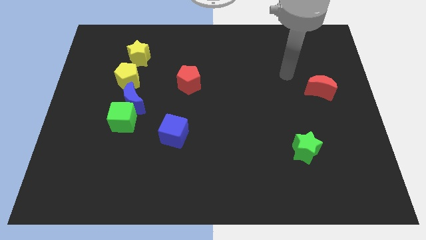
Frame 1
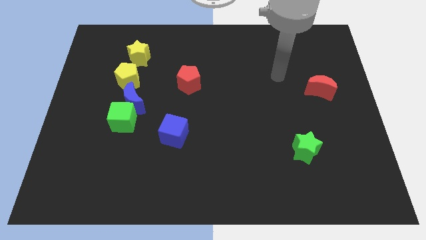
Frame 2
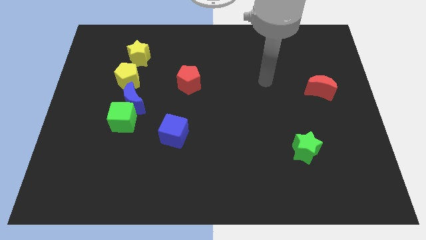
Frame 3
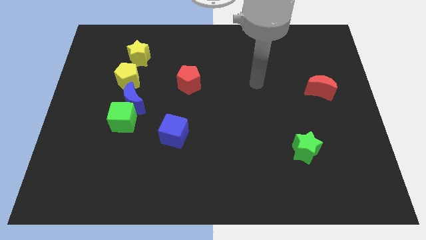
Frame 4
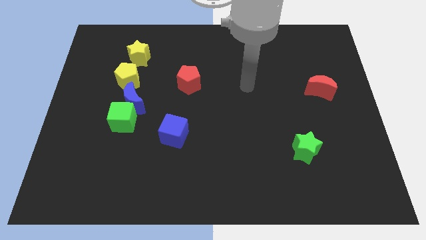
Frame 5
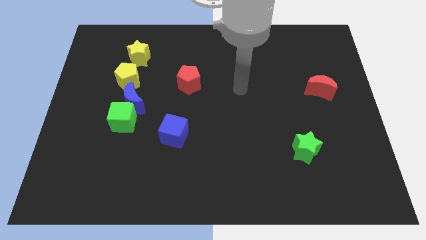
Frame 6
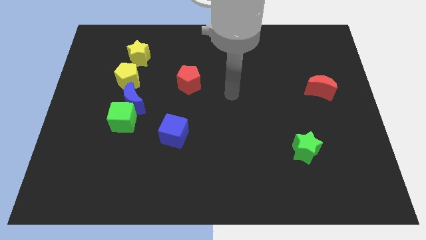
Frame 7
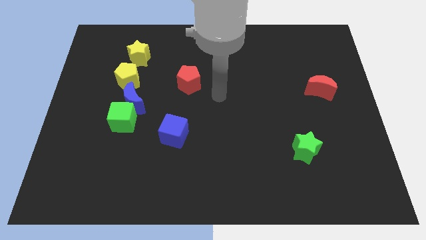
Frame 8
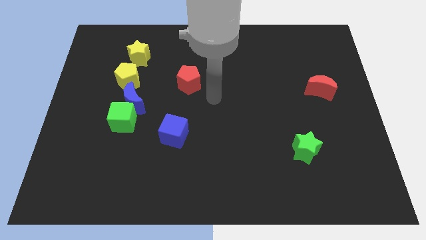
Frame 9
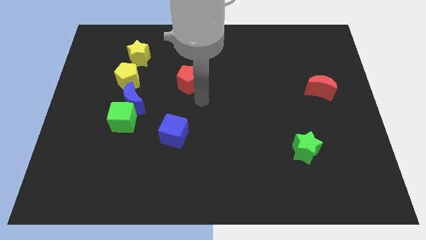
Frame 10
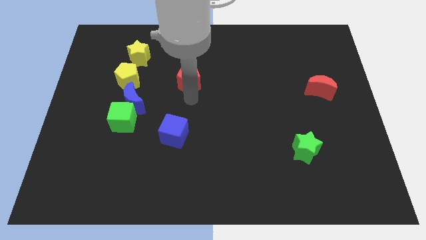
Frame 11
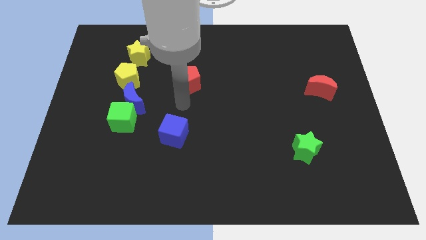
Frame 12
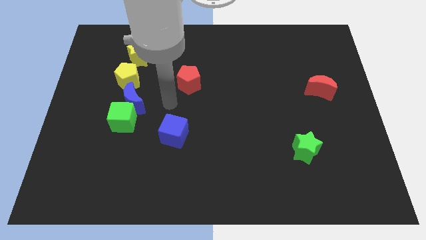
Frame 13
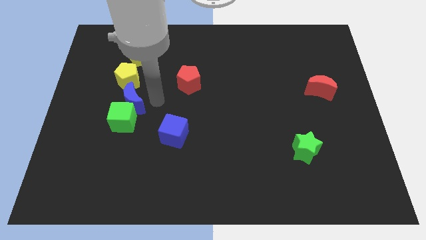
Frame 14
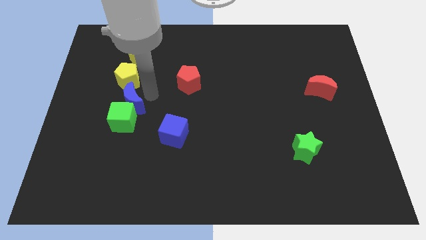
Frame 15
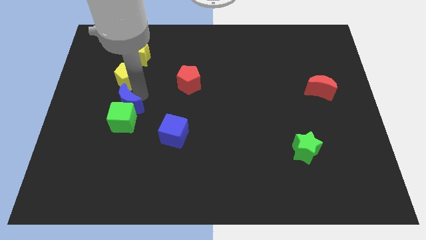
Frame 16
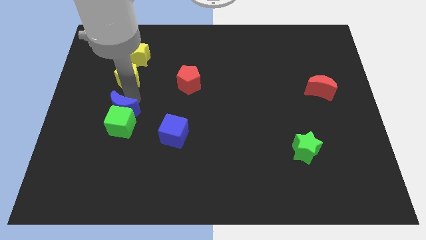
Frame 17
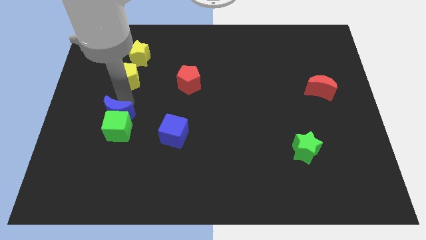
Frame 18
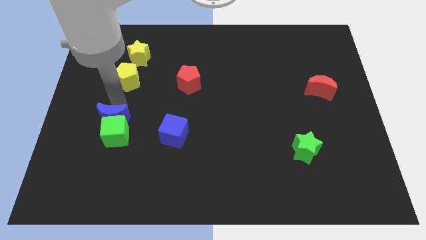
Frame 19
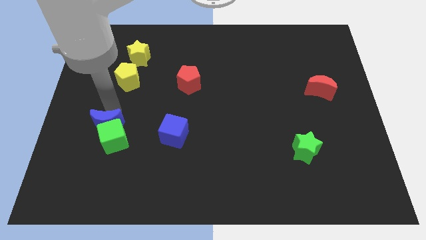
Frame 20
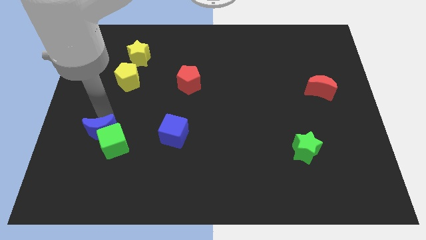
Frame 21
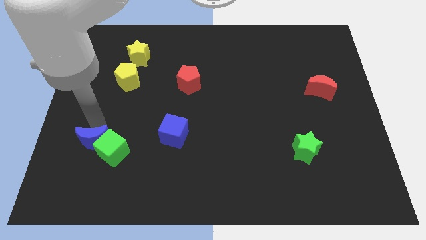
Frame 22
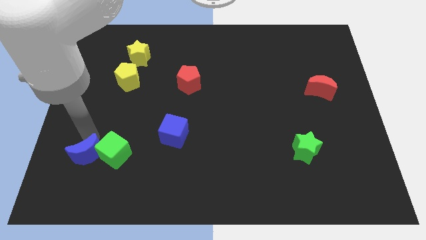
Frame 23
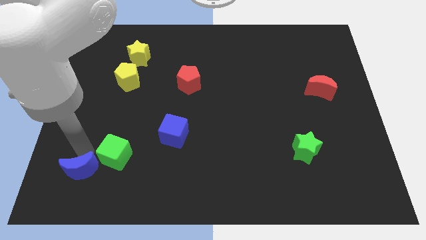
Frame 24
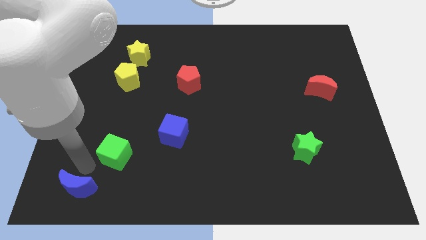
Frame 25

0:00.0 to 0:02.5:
separate the green cube from the blue moon

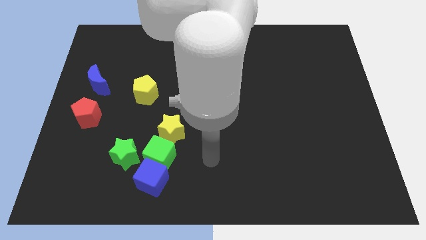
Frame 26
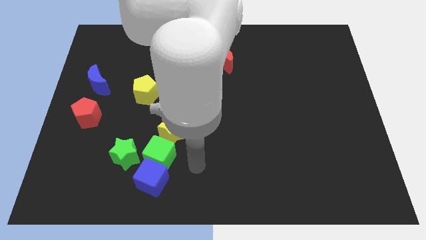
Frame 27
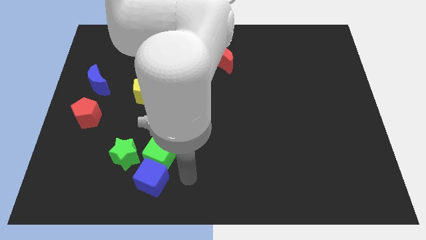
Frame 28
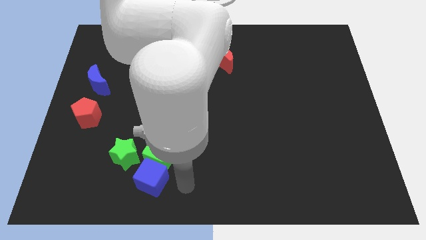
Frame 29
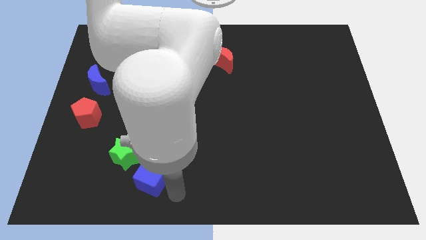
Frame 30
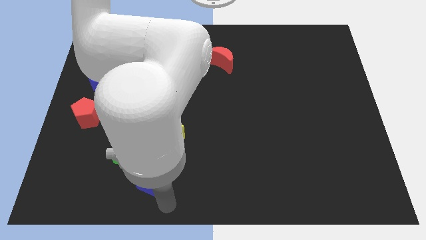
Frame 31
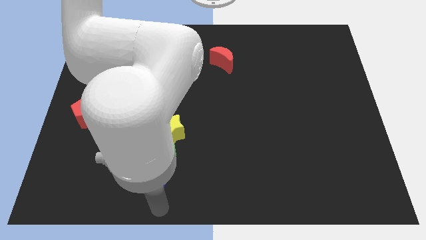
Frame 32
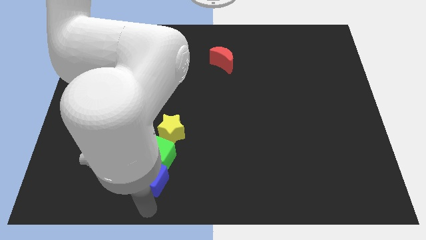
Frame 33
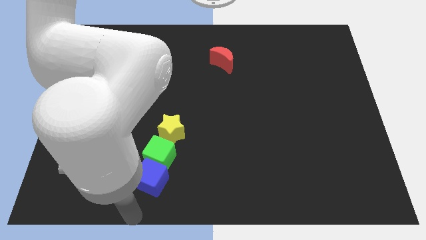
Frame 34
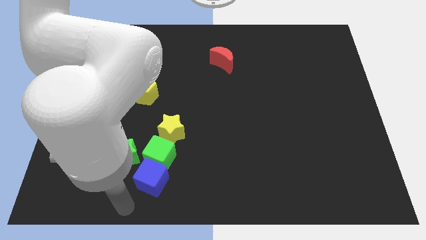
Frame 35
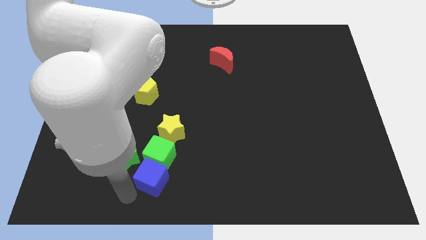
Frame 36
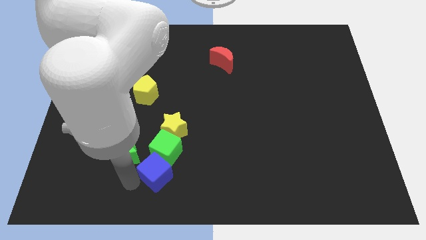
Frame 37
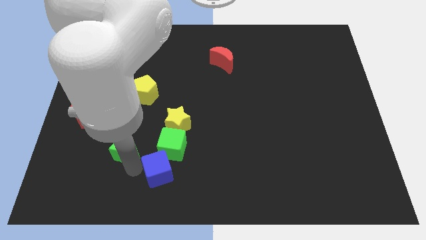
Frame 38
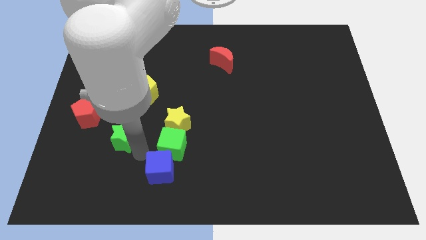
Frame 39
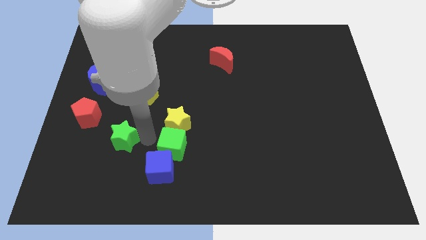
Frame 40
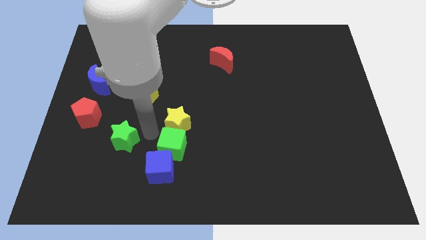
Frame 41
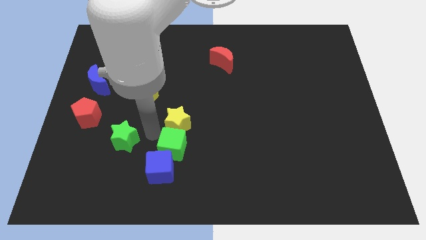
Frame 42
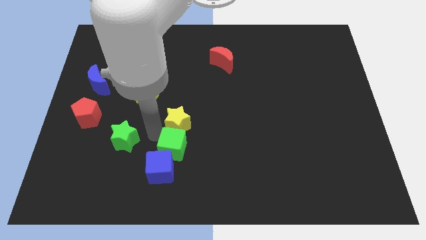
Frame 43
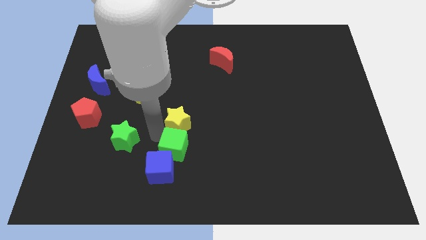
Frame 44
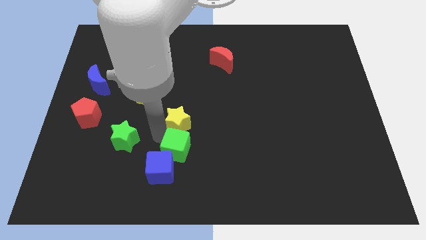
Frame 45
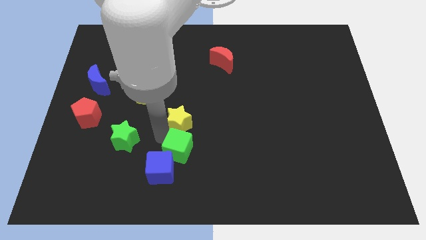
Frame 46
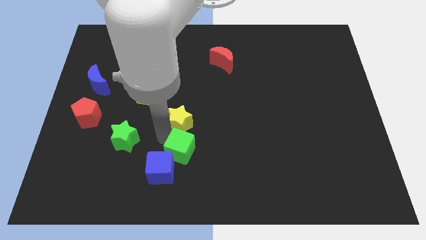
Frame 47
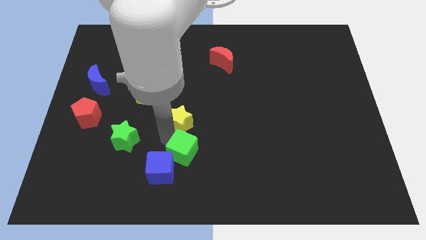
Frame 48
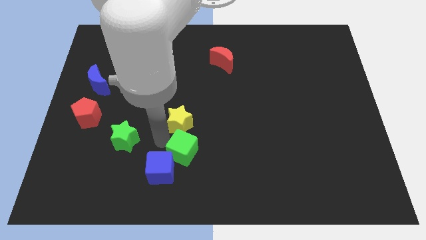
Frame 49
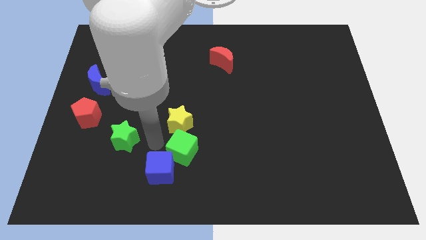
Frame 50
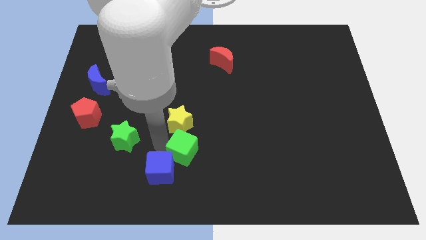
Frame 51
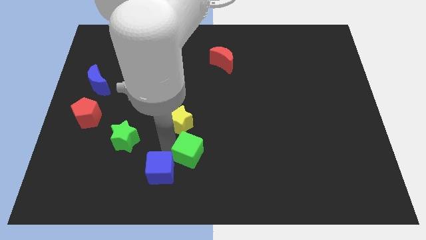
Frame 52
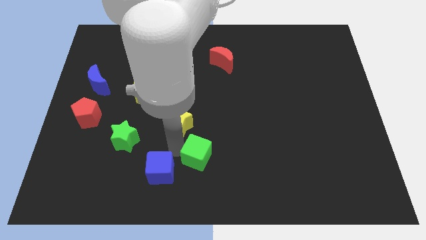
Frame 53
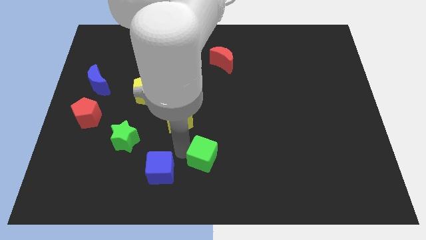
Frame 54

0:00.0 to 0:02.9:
move the green cube away from the blue cube, yellow star, and green star

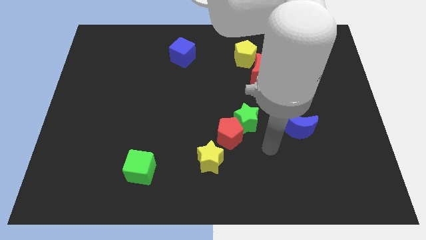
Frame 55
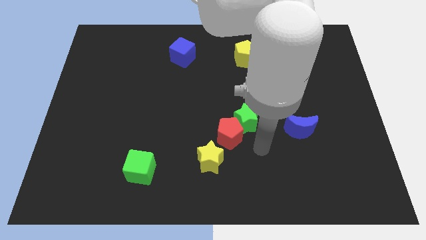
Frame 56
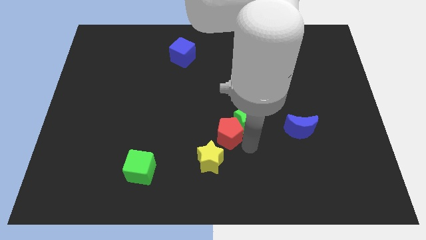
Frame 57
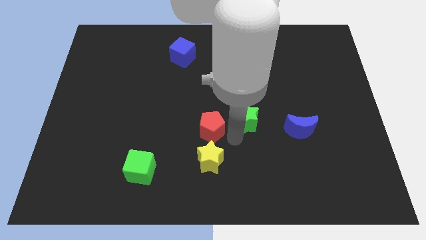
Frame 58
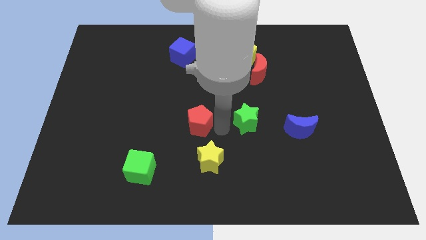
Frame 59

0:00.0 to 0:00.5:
separate the green star from the red pentagon

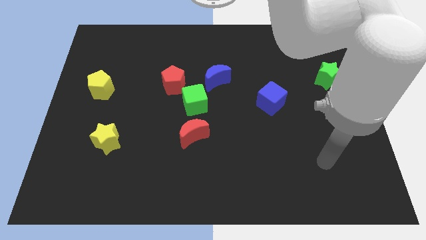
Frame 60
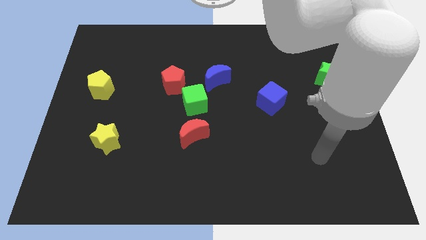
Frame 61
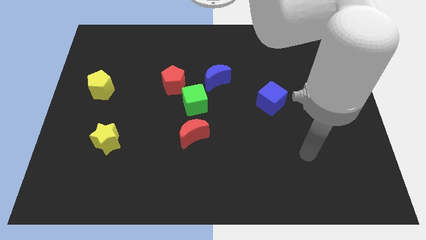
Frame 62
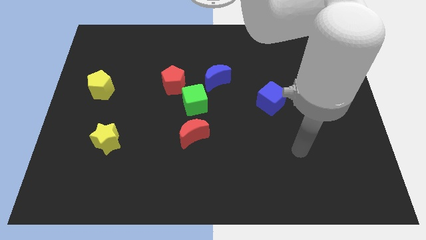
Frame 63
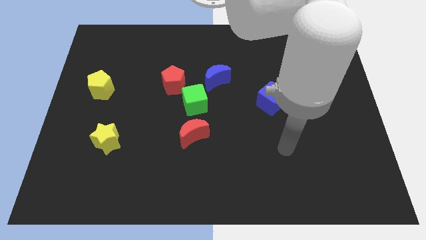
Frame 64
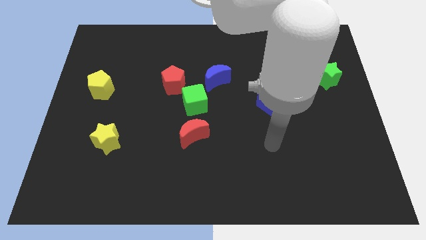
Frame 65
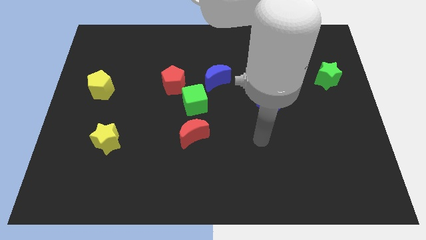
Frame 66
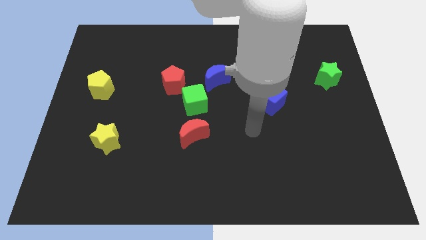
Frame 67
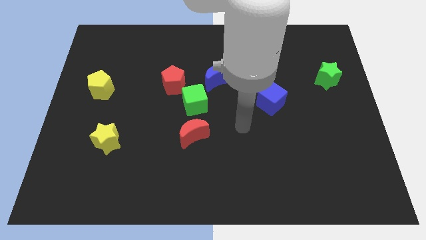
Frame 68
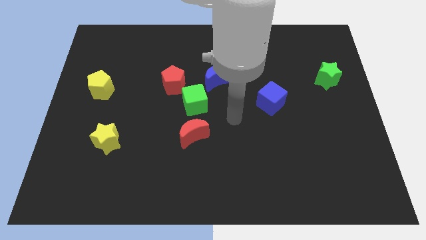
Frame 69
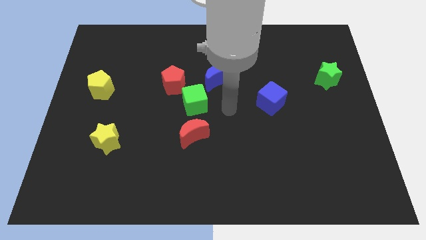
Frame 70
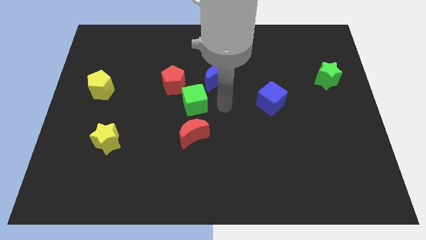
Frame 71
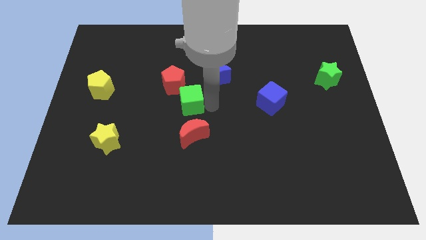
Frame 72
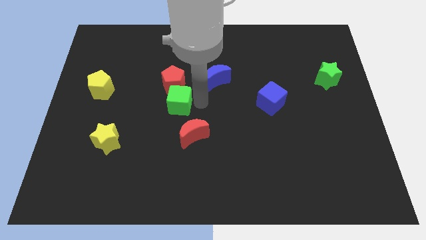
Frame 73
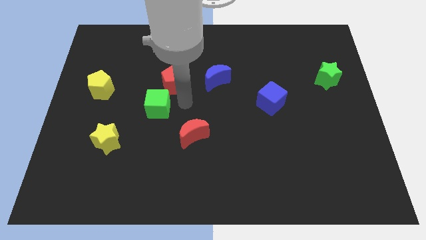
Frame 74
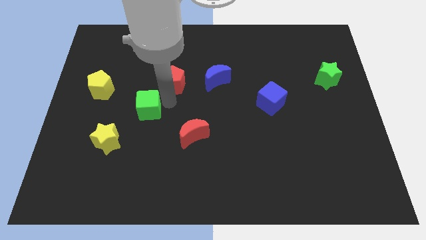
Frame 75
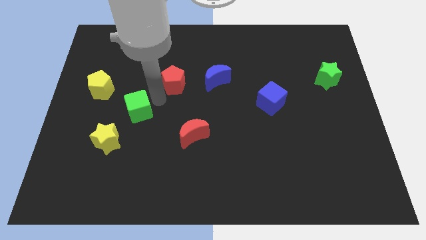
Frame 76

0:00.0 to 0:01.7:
move the red pentagon away from the green cube

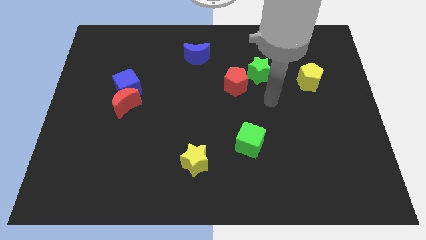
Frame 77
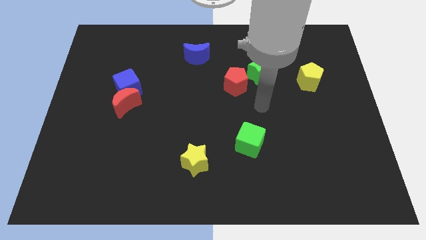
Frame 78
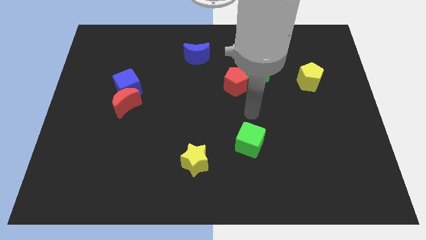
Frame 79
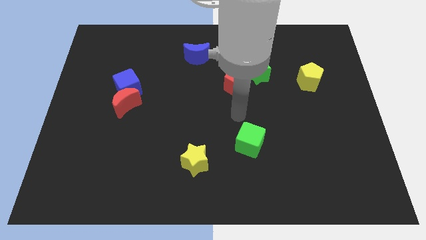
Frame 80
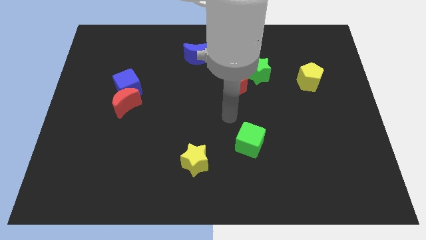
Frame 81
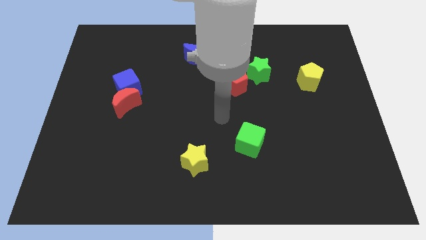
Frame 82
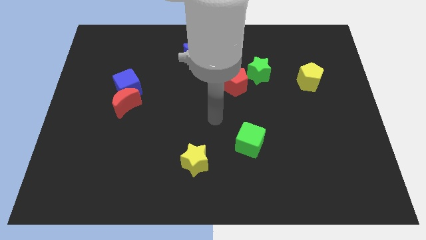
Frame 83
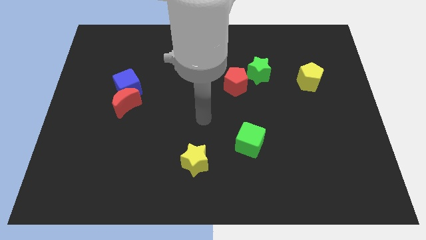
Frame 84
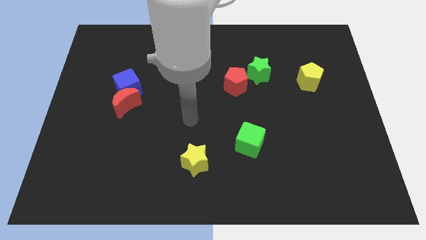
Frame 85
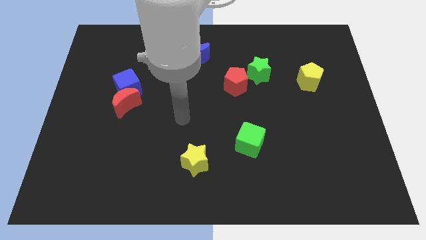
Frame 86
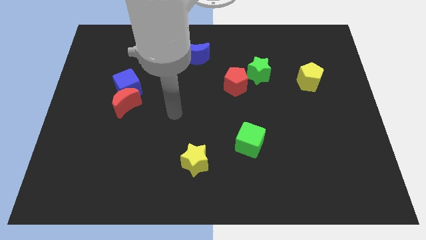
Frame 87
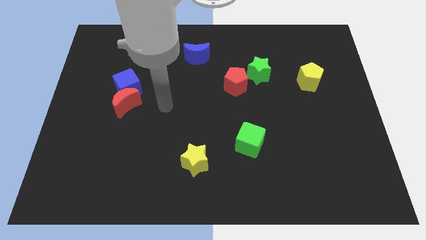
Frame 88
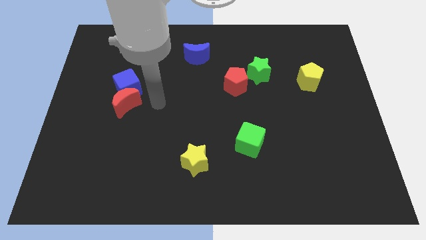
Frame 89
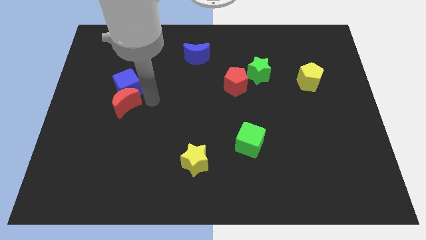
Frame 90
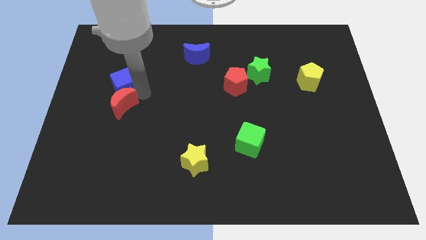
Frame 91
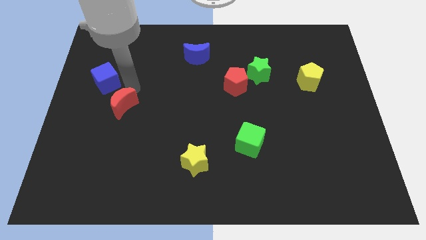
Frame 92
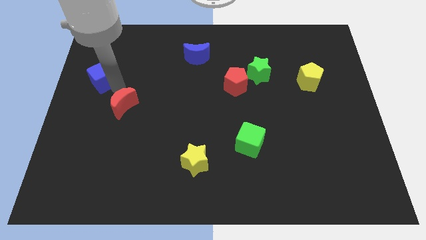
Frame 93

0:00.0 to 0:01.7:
move the red moon away from the blue cube
